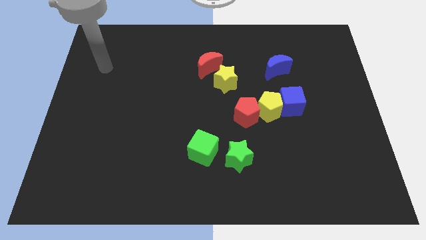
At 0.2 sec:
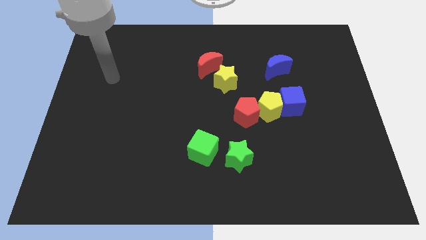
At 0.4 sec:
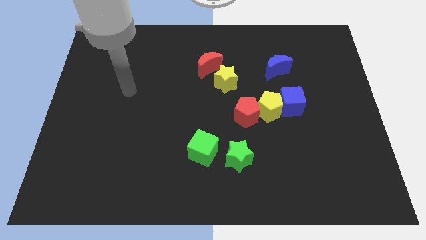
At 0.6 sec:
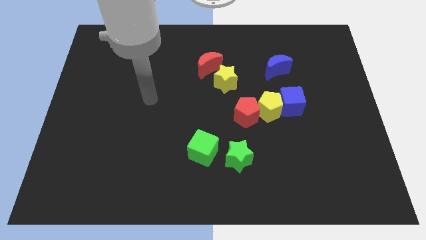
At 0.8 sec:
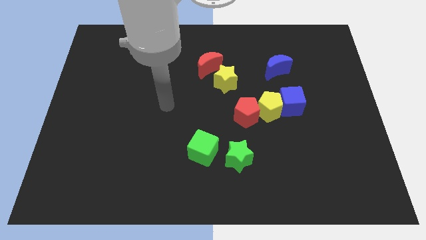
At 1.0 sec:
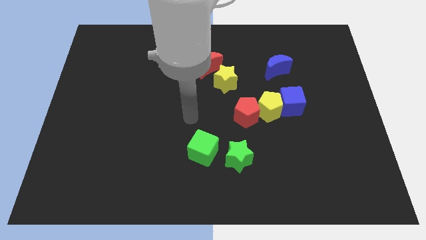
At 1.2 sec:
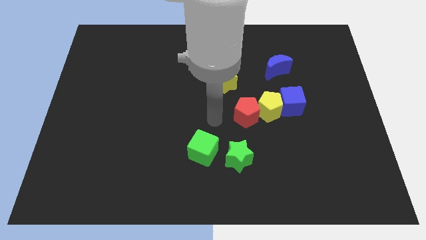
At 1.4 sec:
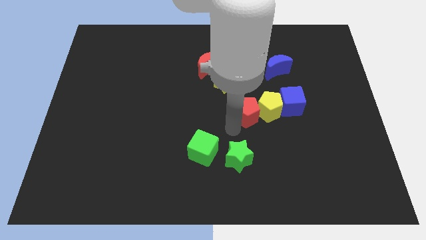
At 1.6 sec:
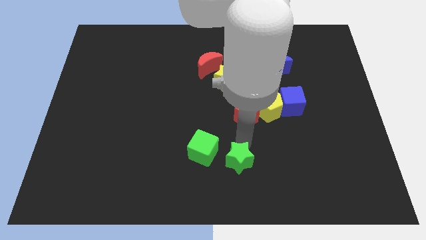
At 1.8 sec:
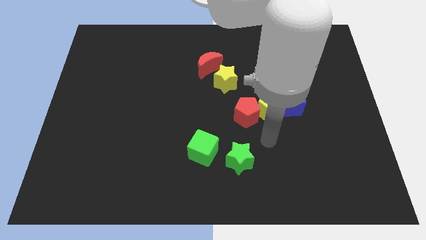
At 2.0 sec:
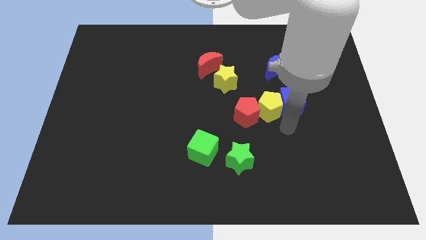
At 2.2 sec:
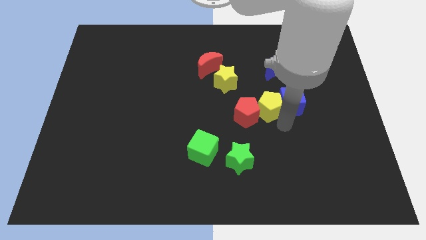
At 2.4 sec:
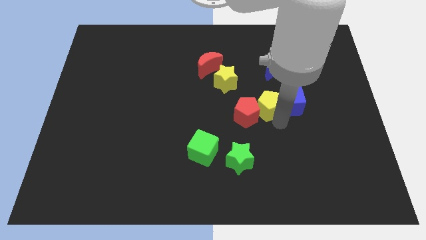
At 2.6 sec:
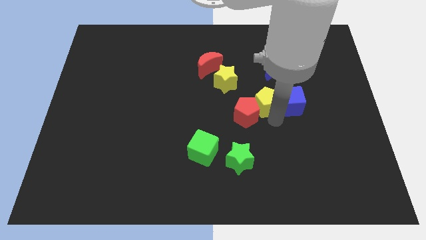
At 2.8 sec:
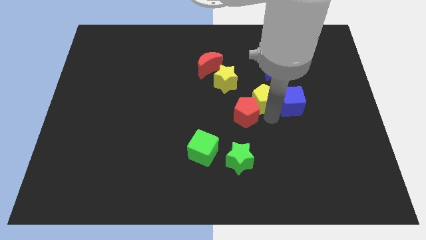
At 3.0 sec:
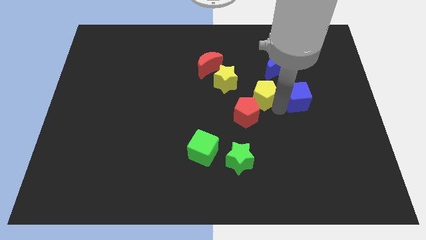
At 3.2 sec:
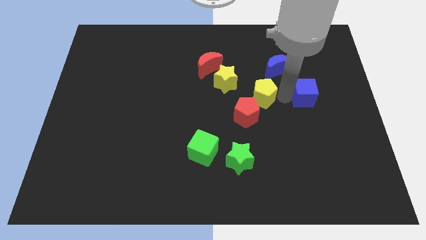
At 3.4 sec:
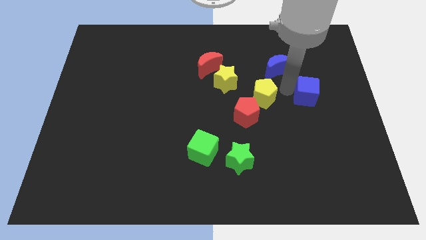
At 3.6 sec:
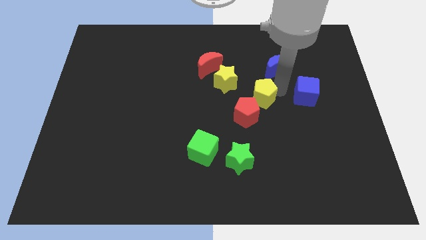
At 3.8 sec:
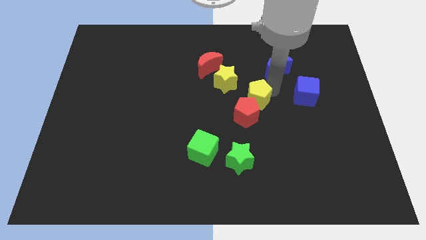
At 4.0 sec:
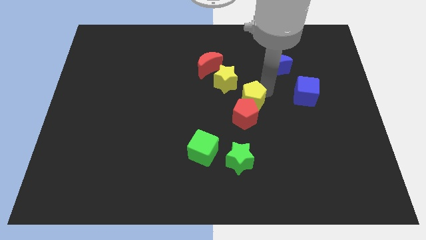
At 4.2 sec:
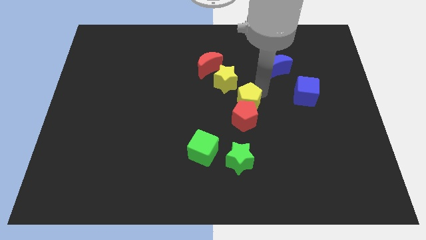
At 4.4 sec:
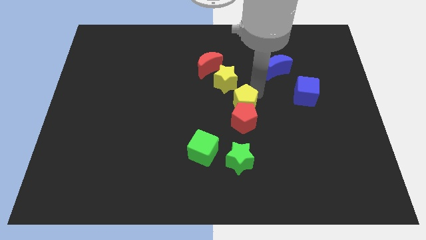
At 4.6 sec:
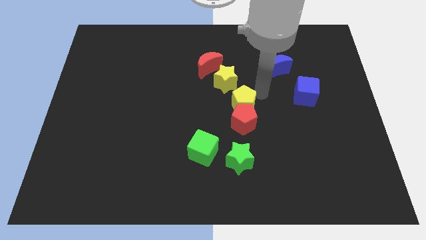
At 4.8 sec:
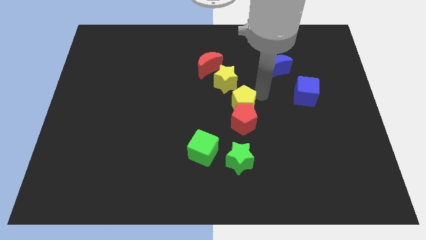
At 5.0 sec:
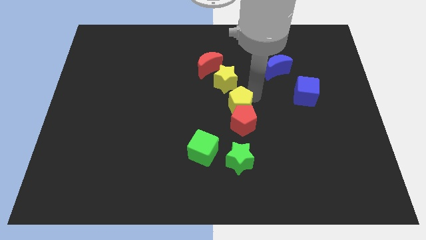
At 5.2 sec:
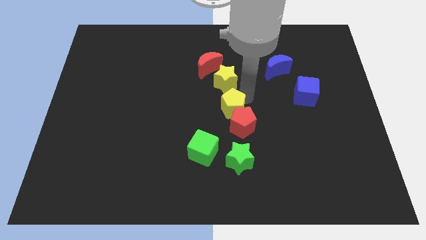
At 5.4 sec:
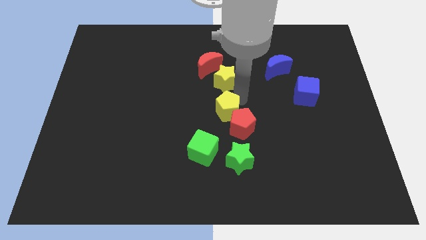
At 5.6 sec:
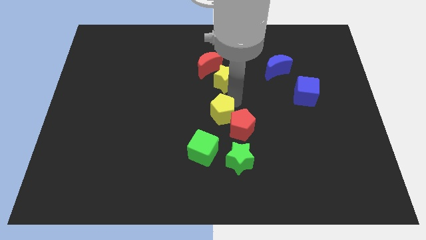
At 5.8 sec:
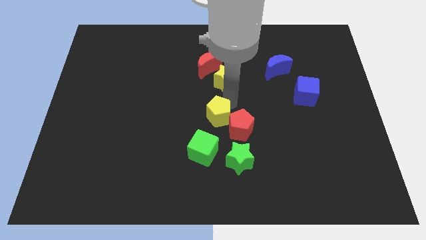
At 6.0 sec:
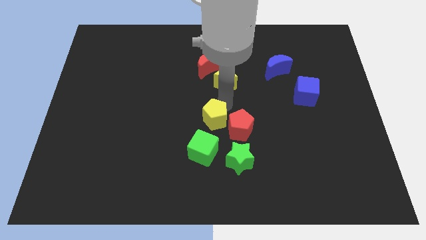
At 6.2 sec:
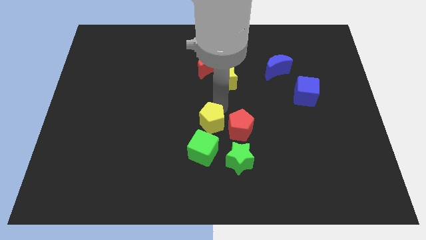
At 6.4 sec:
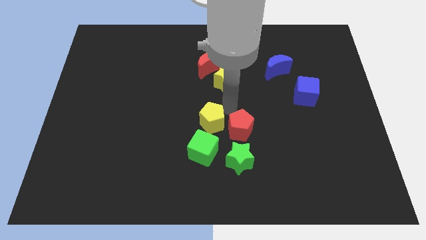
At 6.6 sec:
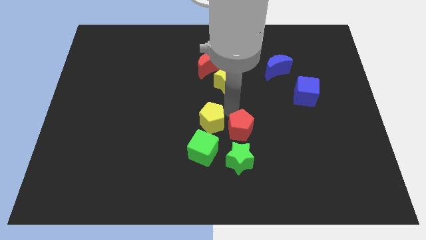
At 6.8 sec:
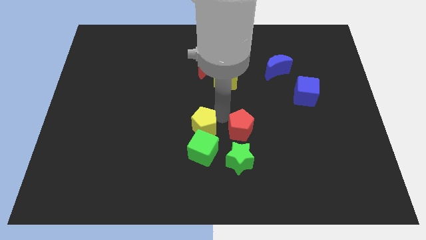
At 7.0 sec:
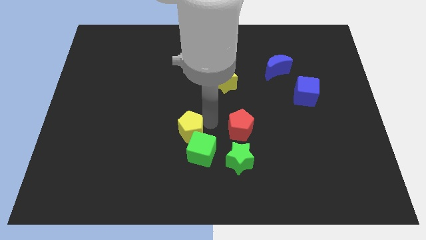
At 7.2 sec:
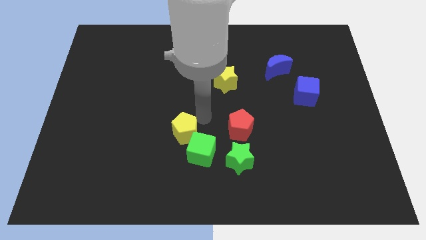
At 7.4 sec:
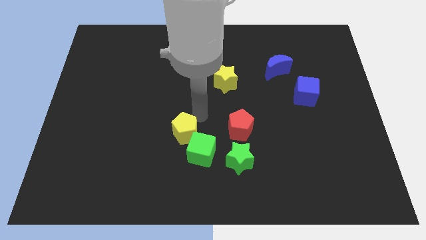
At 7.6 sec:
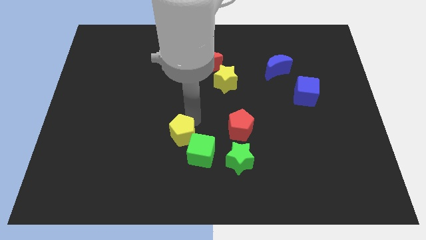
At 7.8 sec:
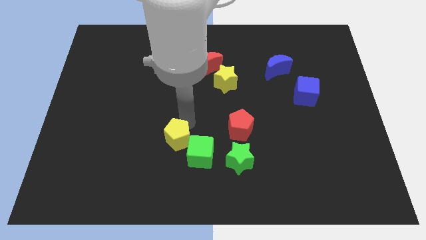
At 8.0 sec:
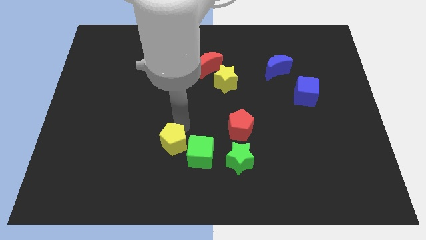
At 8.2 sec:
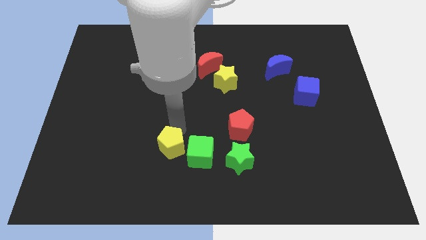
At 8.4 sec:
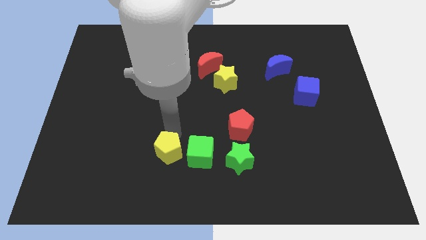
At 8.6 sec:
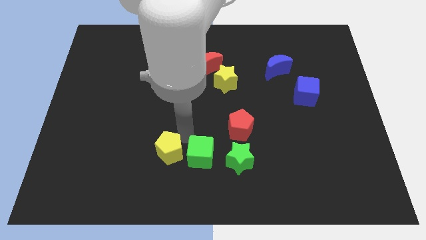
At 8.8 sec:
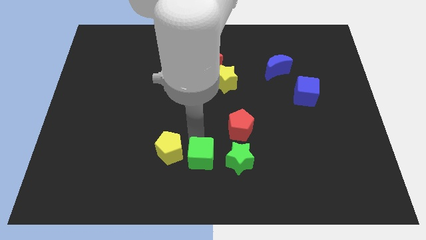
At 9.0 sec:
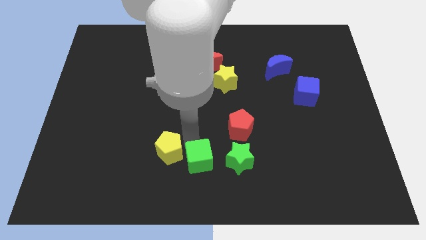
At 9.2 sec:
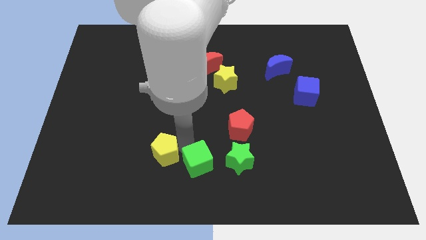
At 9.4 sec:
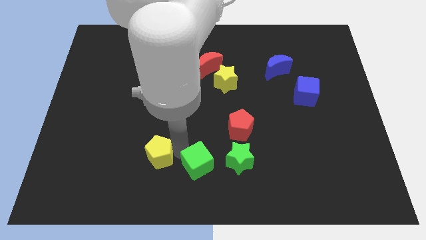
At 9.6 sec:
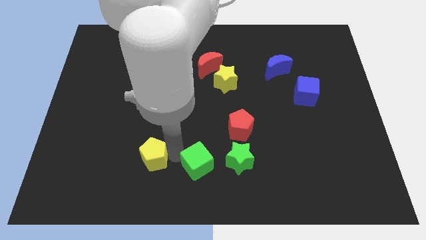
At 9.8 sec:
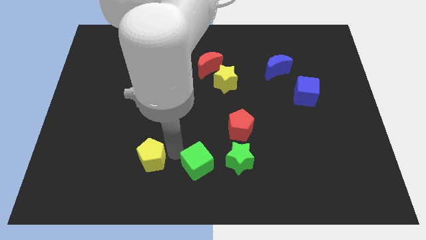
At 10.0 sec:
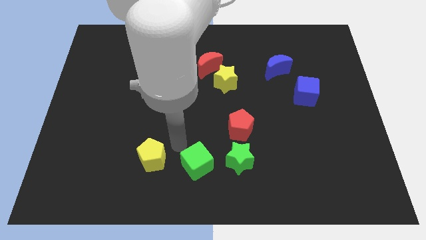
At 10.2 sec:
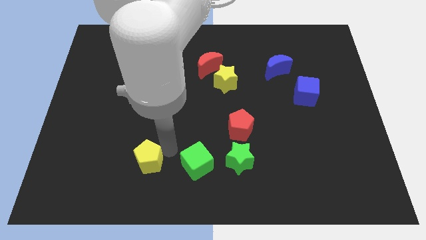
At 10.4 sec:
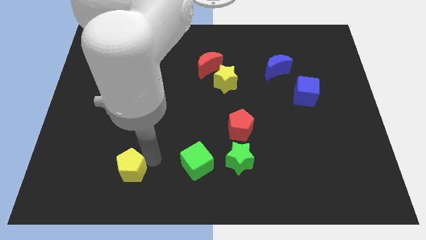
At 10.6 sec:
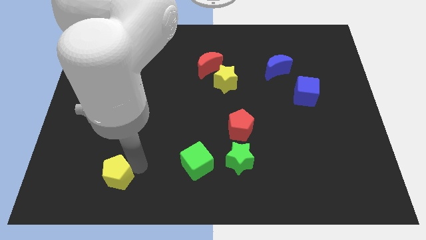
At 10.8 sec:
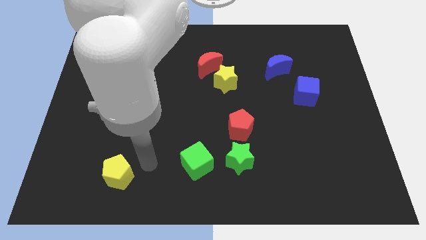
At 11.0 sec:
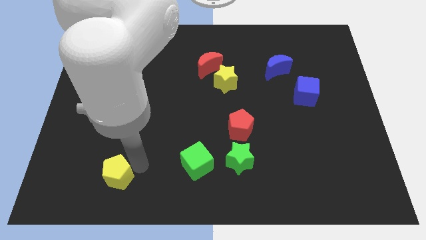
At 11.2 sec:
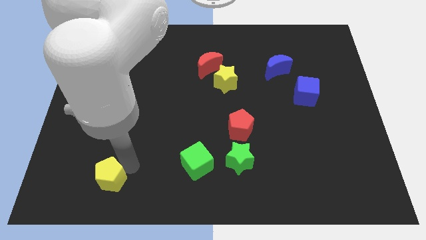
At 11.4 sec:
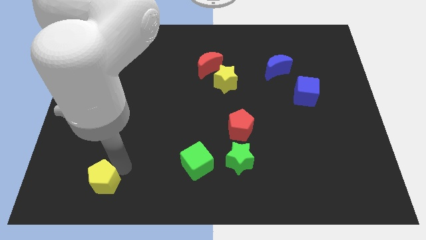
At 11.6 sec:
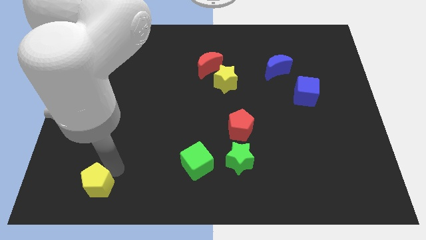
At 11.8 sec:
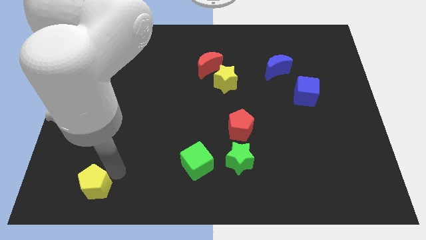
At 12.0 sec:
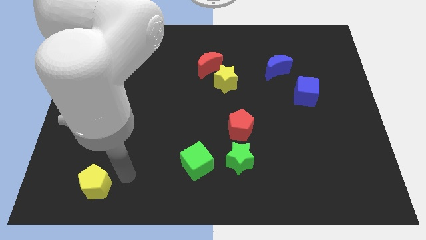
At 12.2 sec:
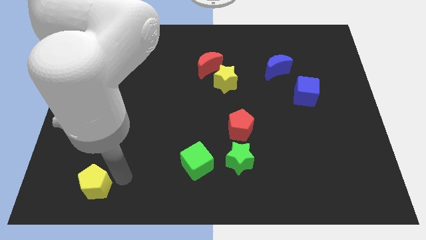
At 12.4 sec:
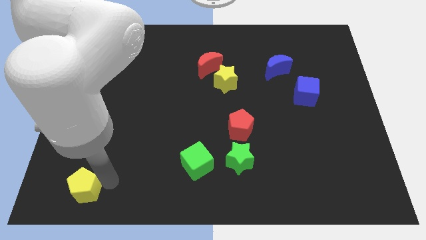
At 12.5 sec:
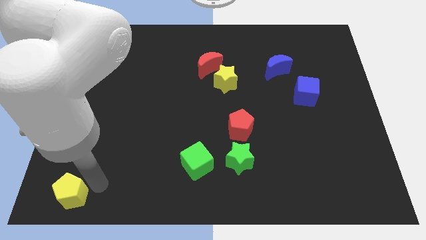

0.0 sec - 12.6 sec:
put the yellow pentagon to the lower left corner
